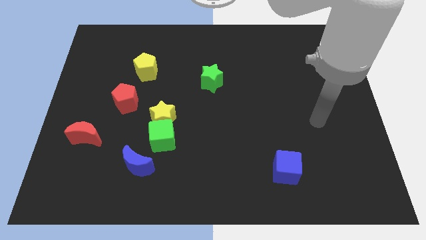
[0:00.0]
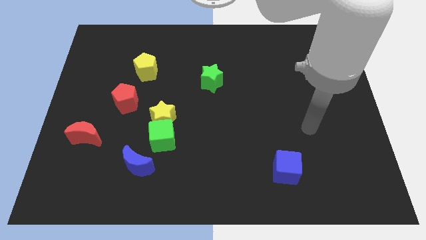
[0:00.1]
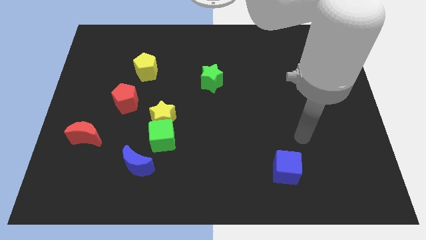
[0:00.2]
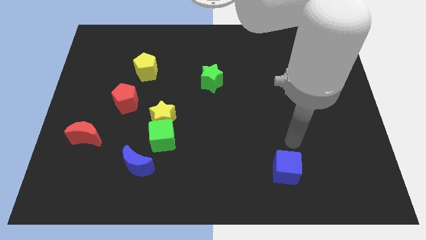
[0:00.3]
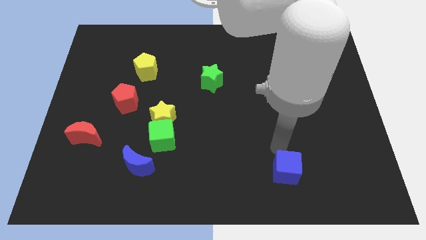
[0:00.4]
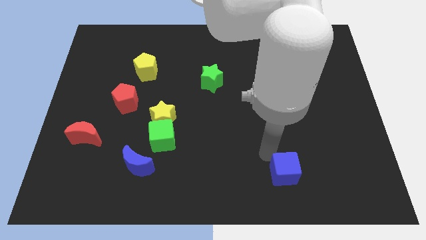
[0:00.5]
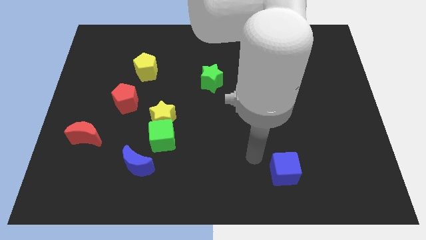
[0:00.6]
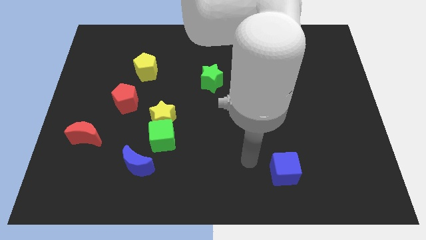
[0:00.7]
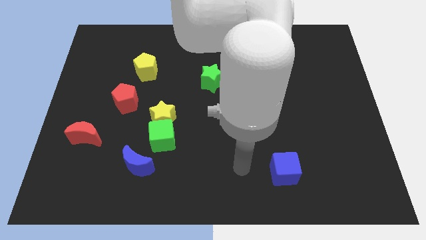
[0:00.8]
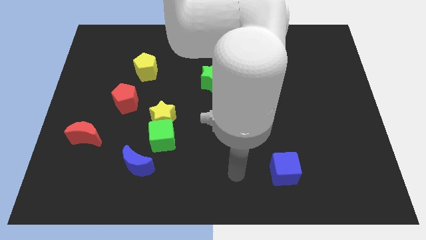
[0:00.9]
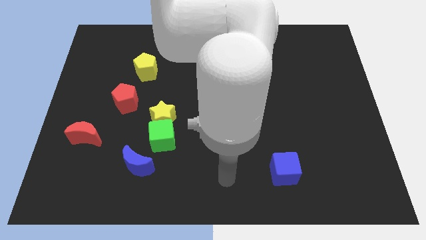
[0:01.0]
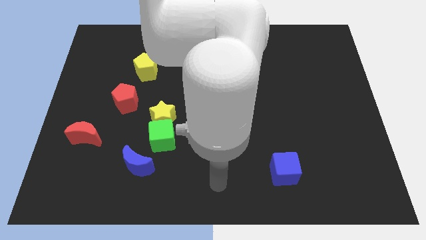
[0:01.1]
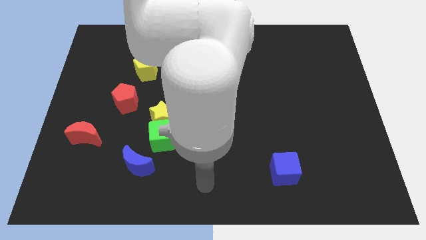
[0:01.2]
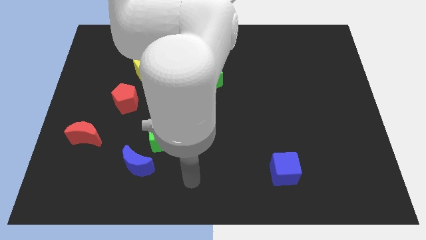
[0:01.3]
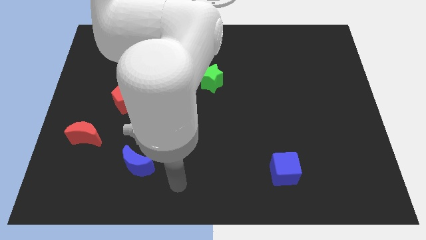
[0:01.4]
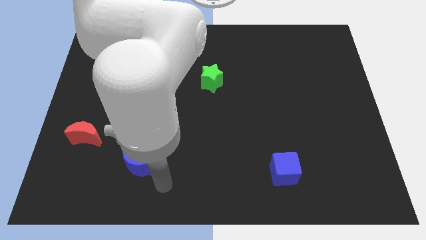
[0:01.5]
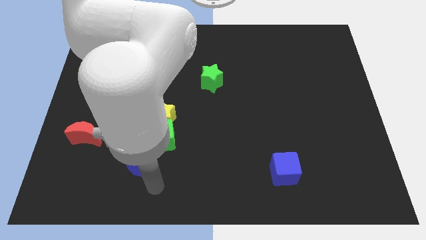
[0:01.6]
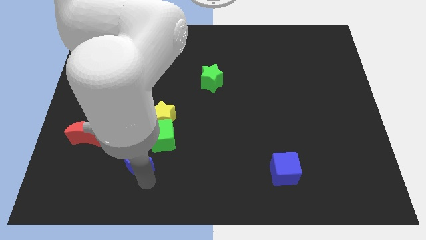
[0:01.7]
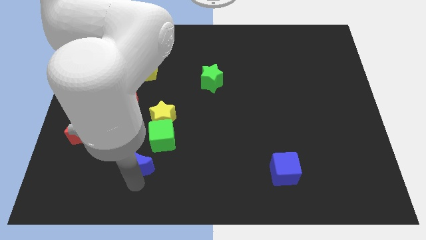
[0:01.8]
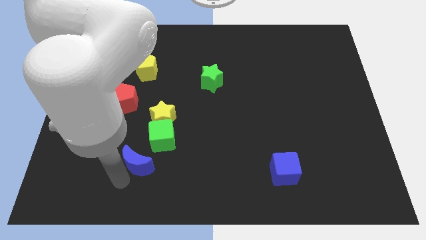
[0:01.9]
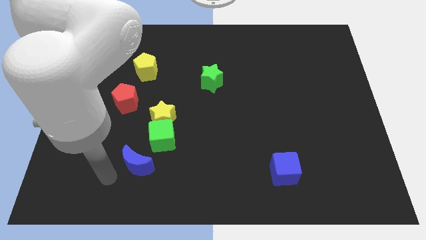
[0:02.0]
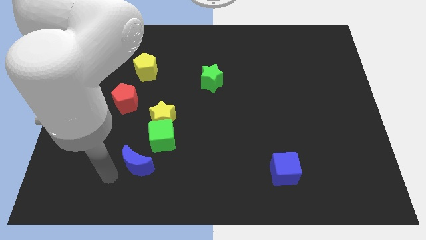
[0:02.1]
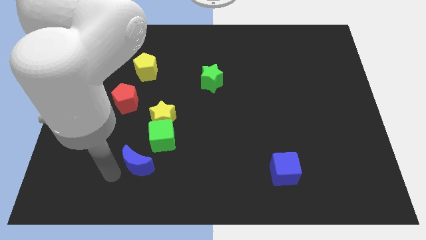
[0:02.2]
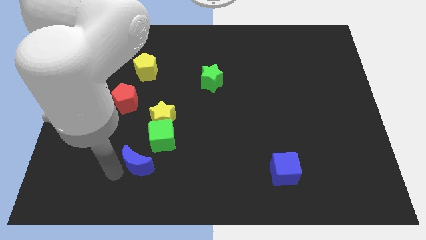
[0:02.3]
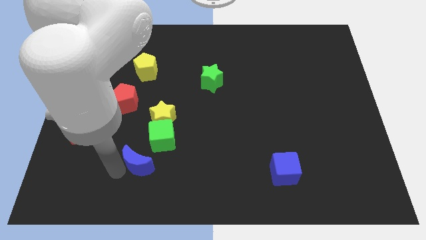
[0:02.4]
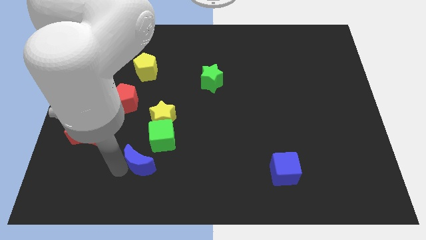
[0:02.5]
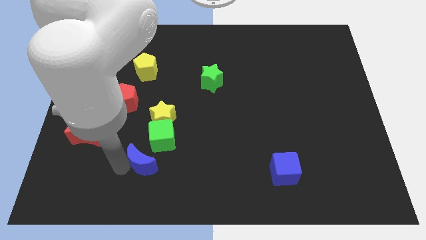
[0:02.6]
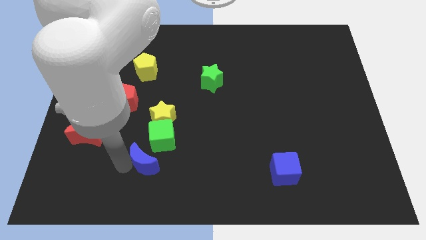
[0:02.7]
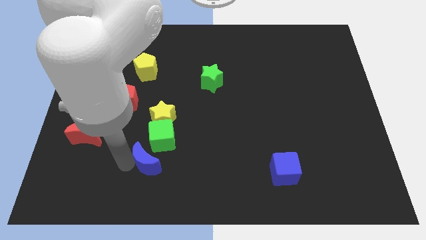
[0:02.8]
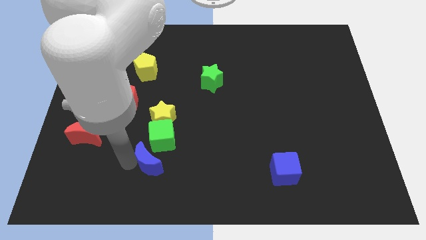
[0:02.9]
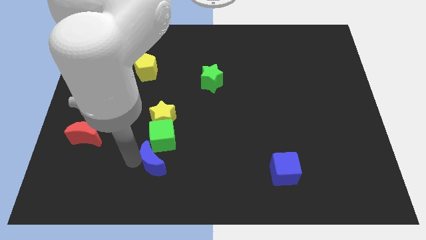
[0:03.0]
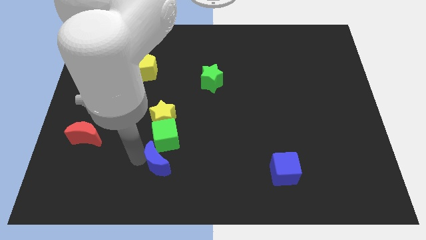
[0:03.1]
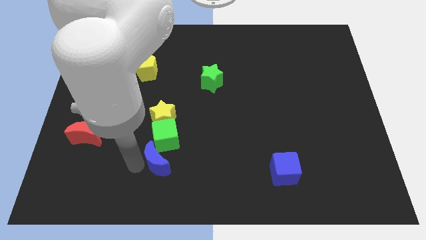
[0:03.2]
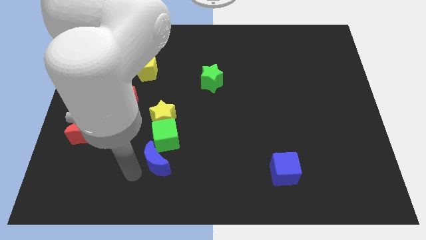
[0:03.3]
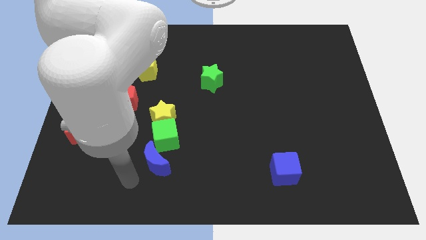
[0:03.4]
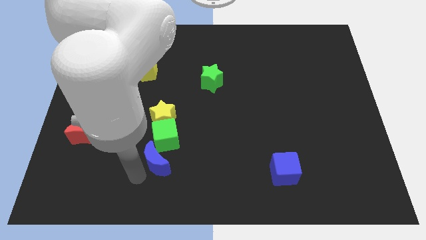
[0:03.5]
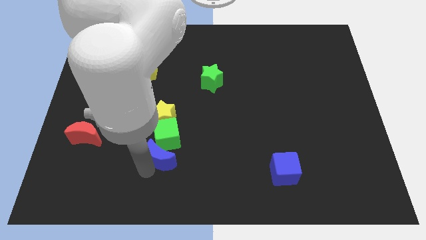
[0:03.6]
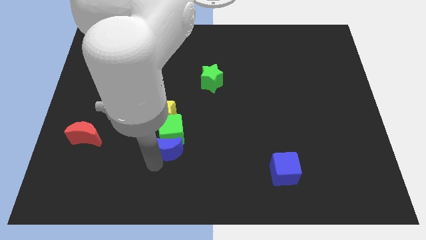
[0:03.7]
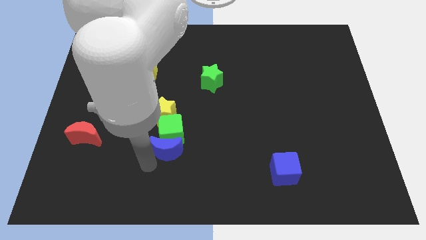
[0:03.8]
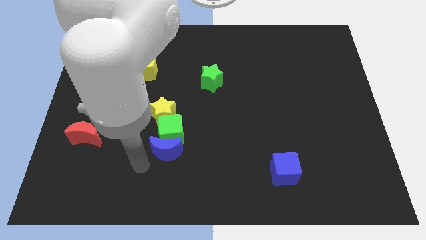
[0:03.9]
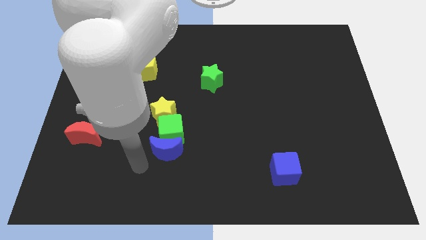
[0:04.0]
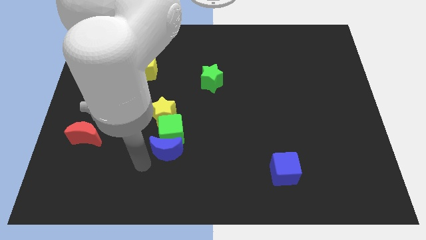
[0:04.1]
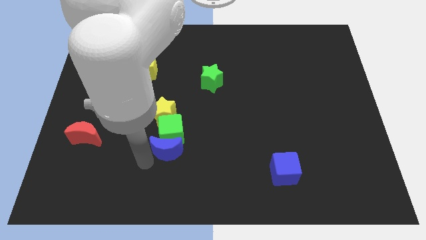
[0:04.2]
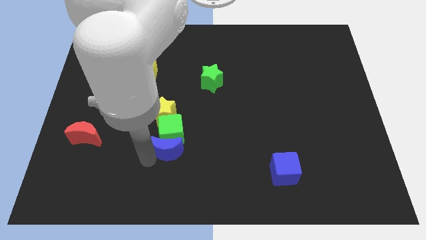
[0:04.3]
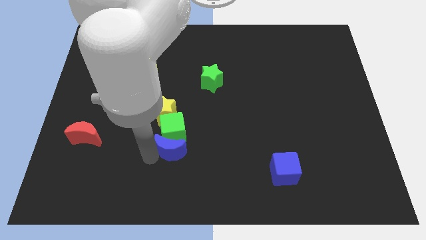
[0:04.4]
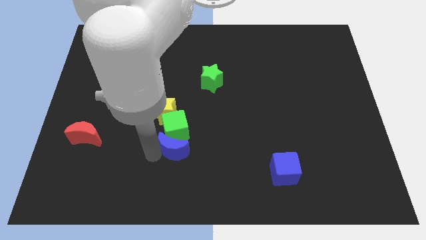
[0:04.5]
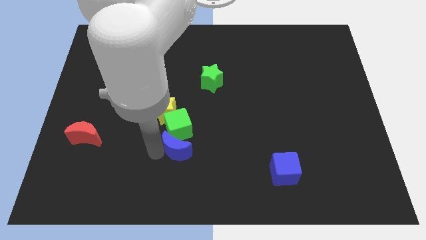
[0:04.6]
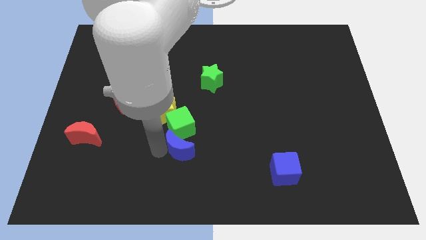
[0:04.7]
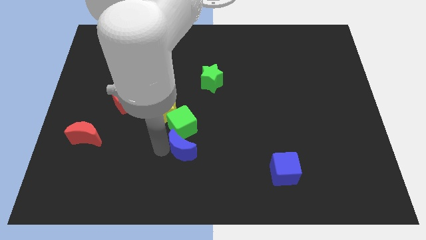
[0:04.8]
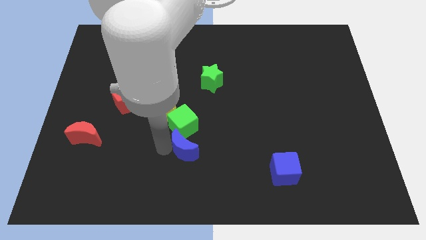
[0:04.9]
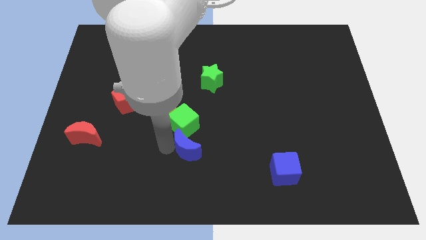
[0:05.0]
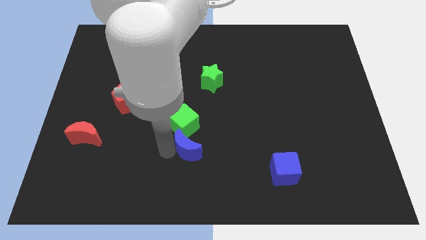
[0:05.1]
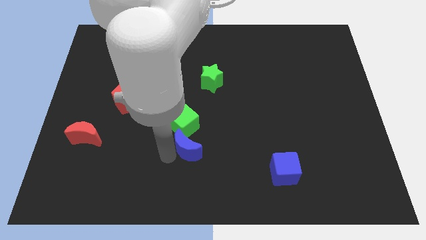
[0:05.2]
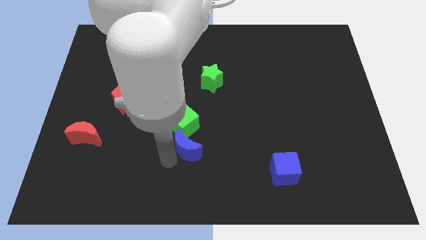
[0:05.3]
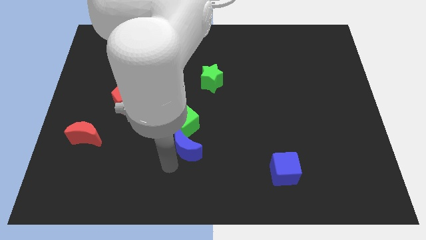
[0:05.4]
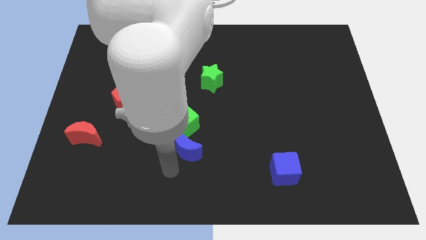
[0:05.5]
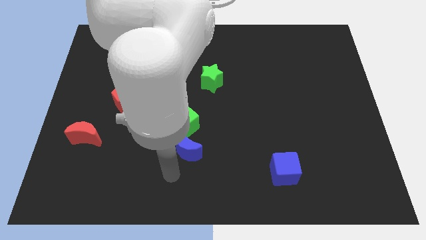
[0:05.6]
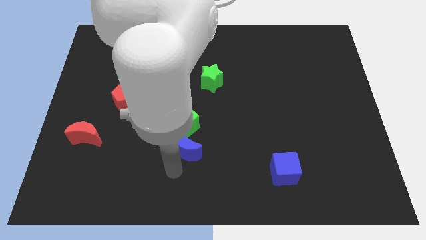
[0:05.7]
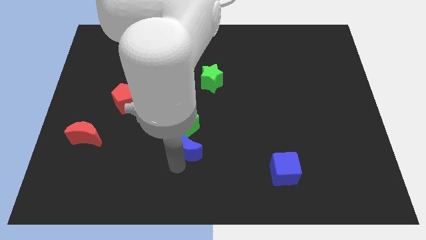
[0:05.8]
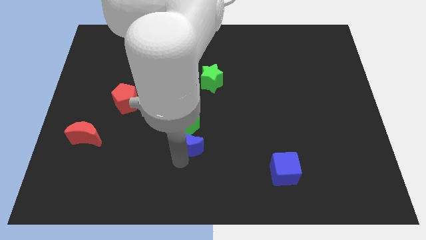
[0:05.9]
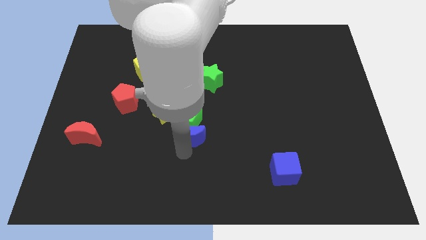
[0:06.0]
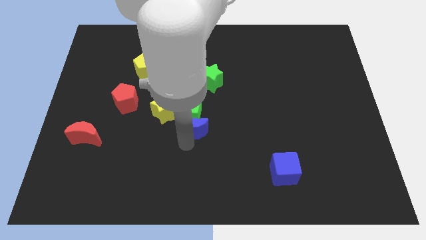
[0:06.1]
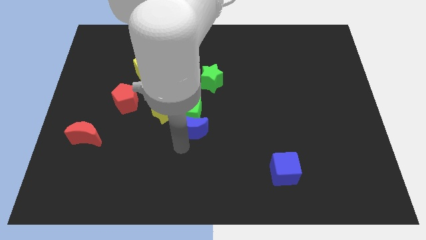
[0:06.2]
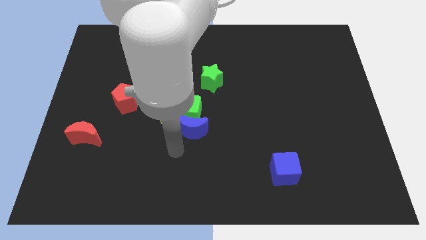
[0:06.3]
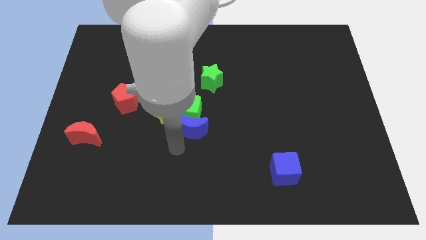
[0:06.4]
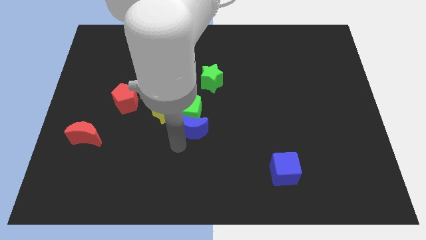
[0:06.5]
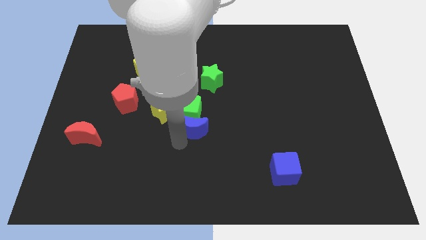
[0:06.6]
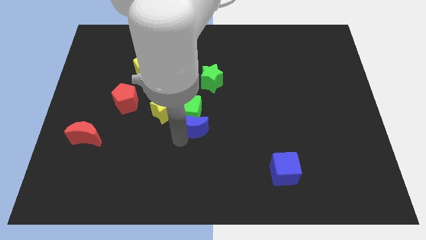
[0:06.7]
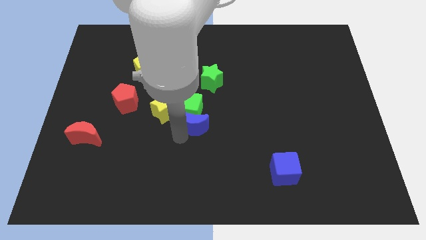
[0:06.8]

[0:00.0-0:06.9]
slide the blue moon to the right of the yellow star
